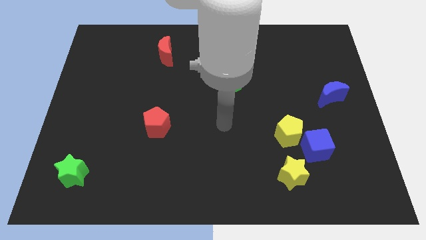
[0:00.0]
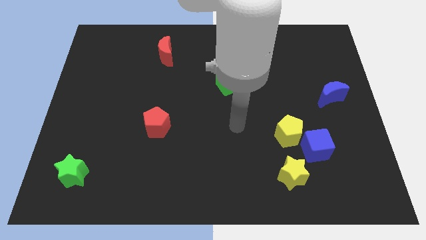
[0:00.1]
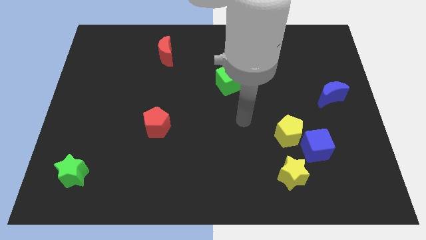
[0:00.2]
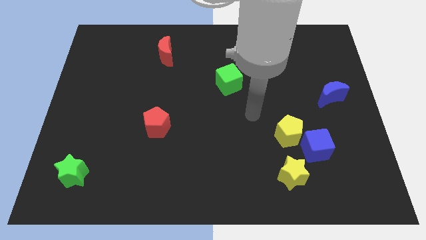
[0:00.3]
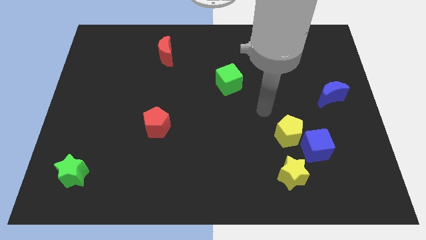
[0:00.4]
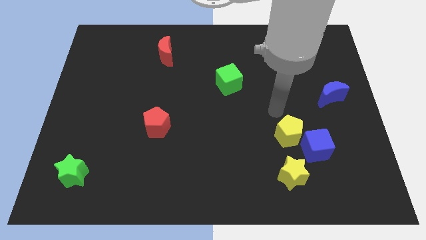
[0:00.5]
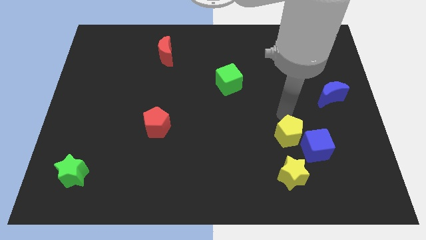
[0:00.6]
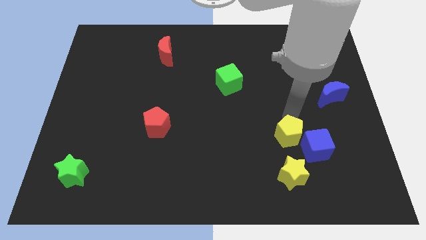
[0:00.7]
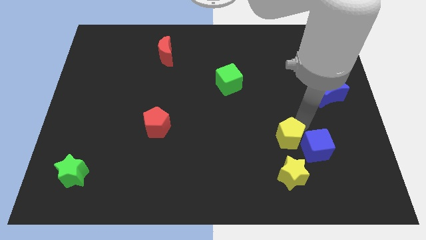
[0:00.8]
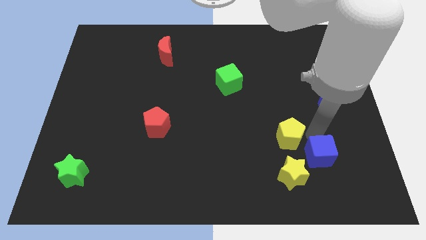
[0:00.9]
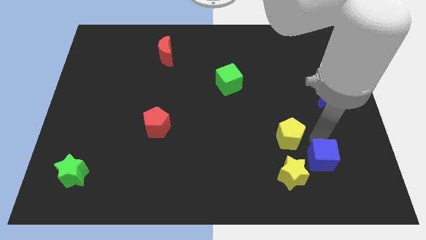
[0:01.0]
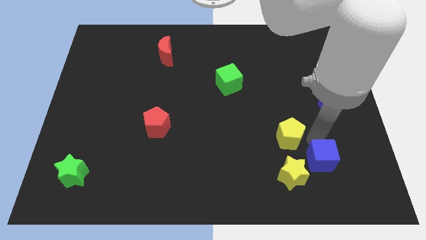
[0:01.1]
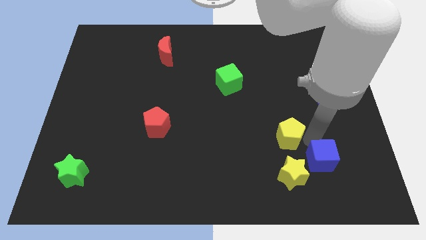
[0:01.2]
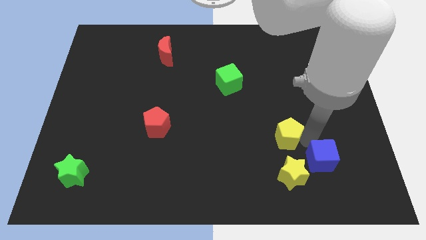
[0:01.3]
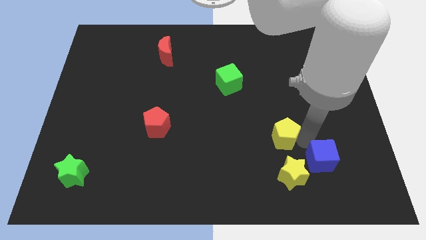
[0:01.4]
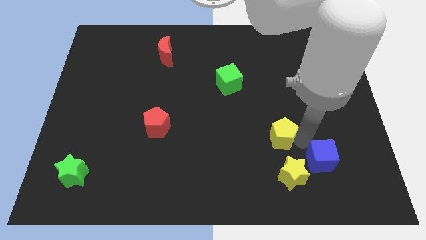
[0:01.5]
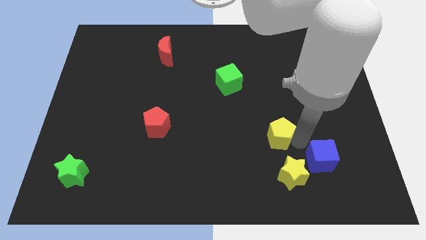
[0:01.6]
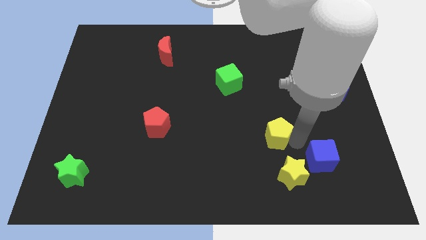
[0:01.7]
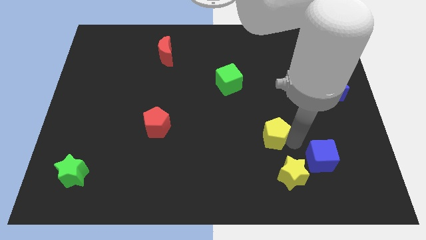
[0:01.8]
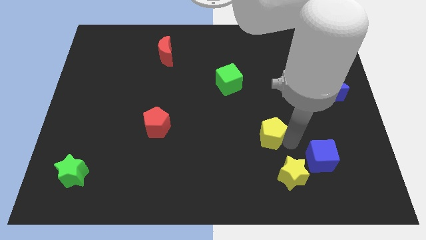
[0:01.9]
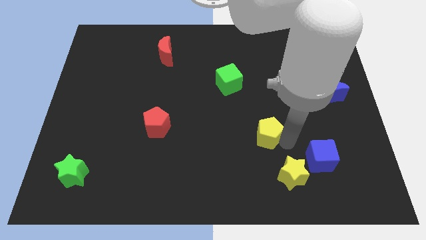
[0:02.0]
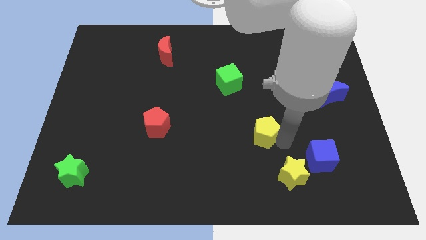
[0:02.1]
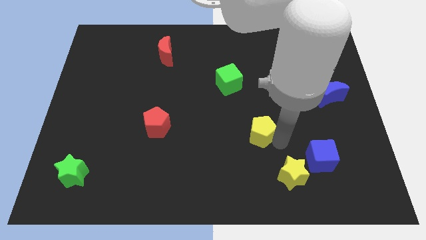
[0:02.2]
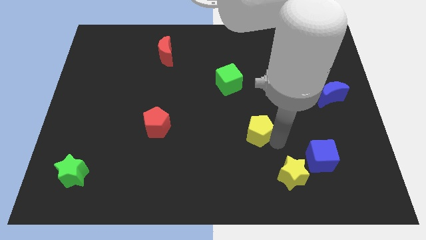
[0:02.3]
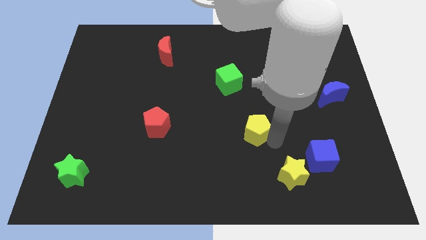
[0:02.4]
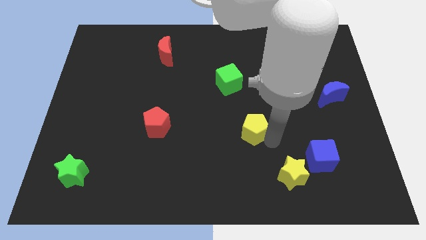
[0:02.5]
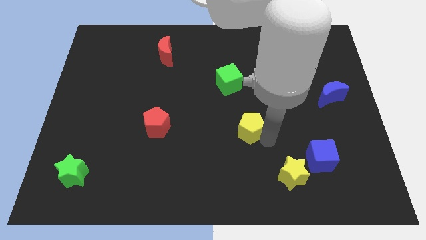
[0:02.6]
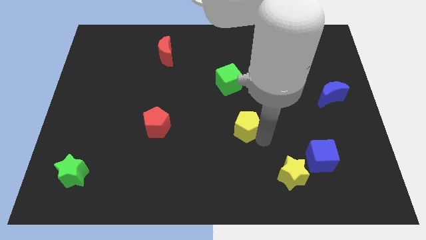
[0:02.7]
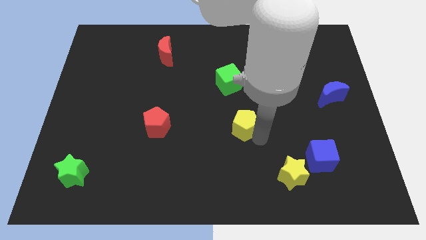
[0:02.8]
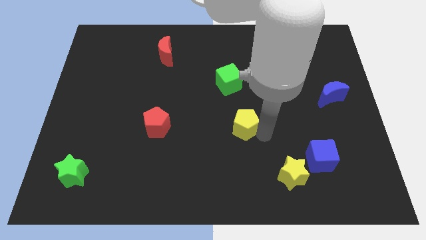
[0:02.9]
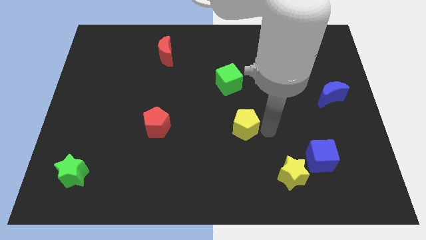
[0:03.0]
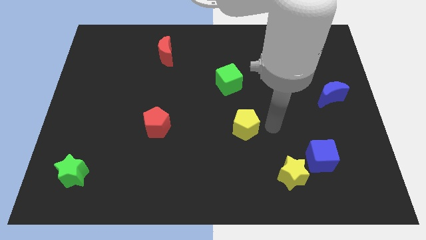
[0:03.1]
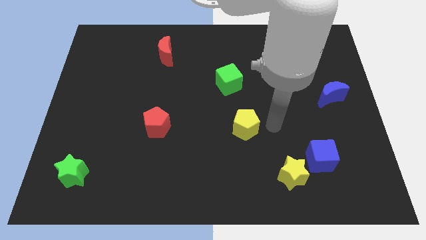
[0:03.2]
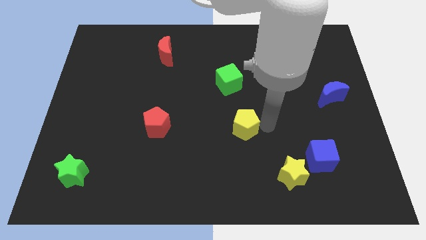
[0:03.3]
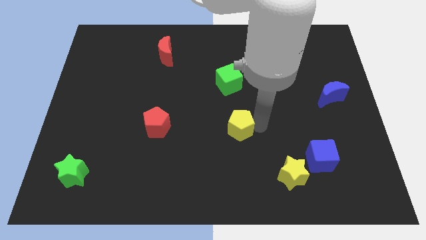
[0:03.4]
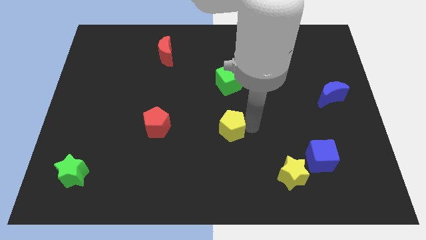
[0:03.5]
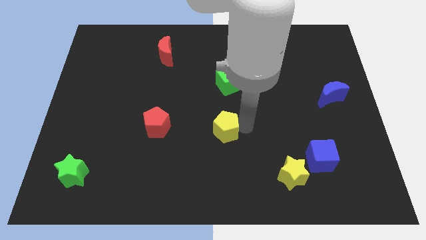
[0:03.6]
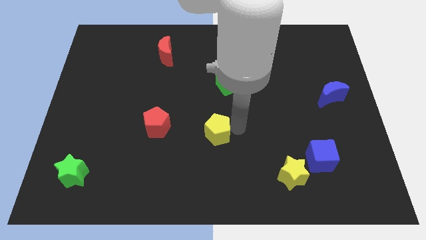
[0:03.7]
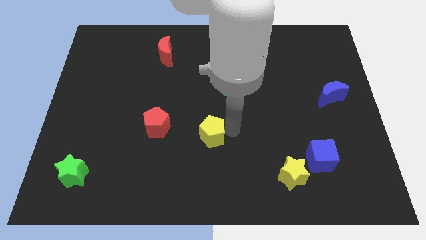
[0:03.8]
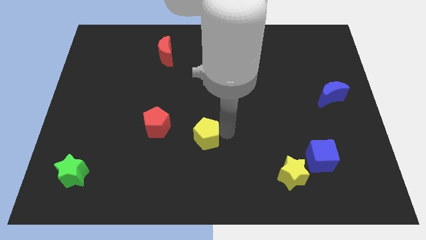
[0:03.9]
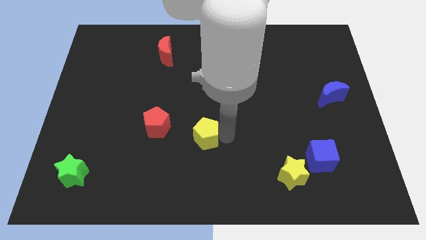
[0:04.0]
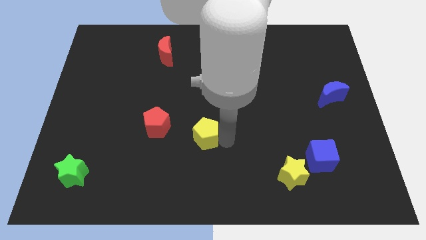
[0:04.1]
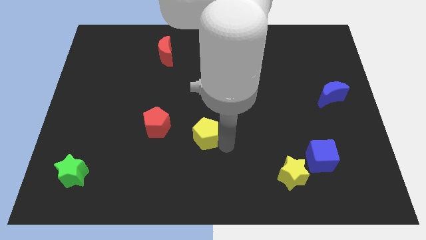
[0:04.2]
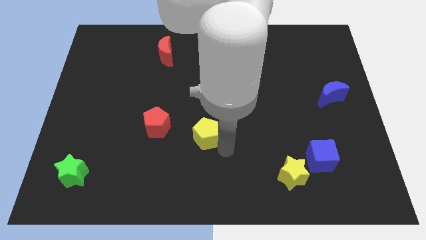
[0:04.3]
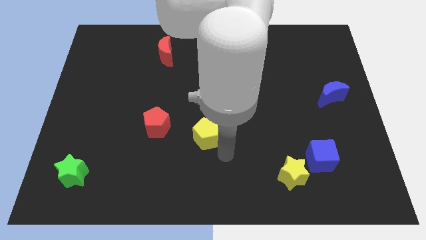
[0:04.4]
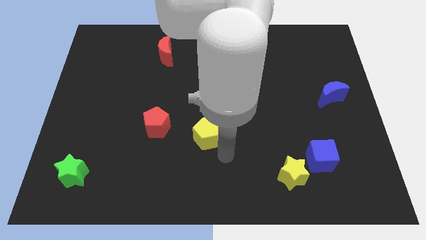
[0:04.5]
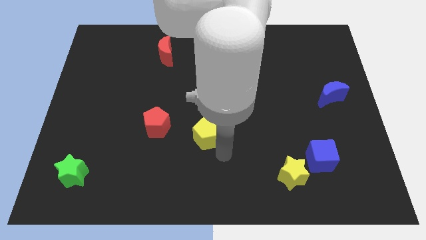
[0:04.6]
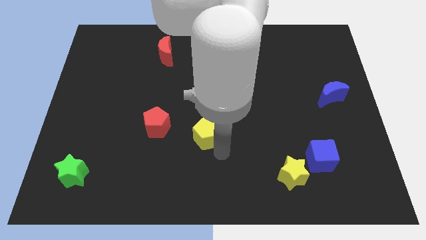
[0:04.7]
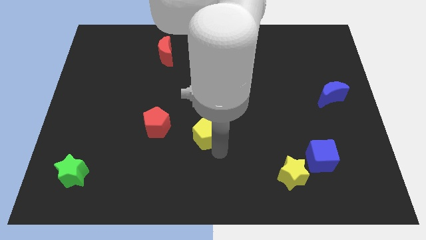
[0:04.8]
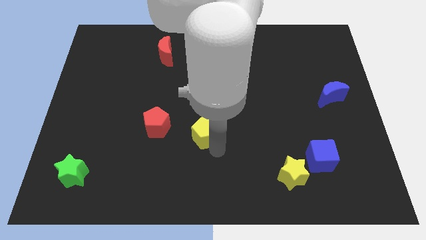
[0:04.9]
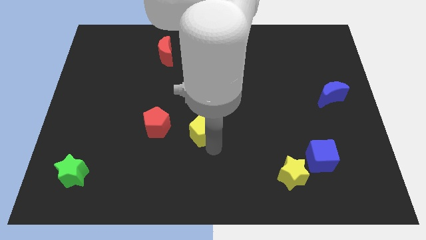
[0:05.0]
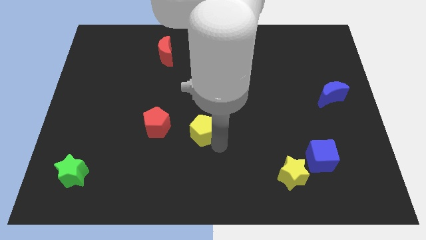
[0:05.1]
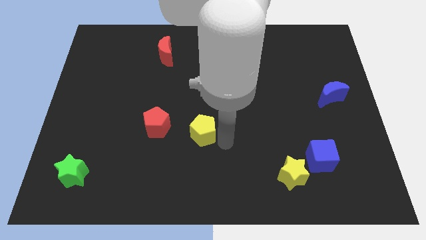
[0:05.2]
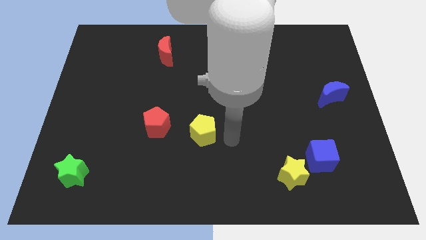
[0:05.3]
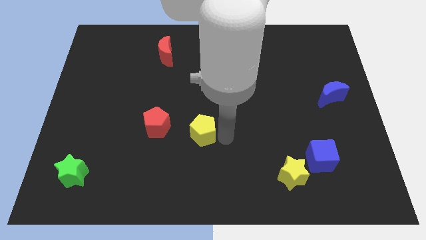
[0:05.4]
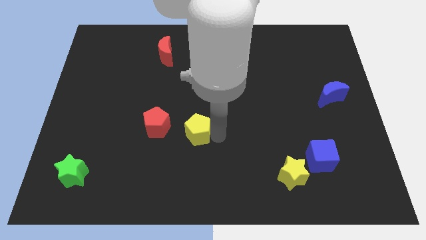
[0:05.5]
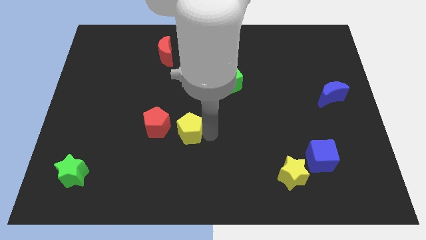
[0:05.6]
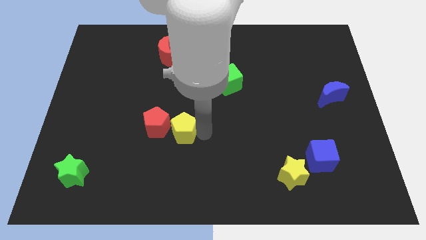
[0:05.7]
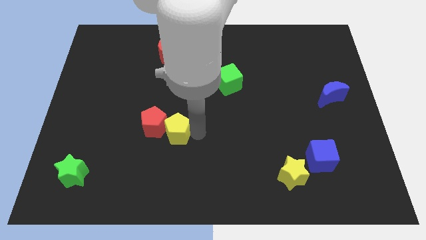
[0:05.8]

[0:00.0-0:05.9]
slide the yellow pentagon to the red pentagon

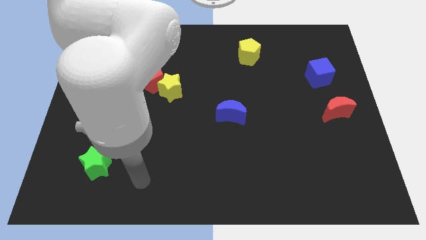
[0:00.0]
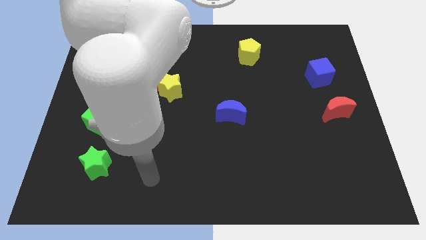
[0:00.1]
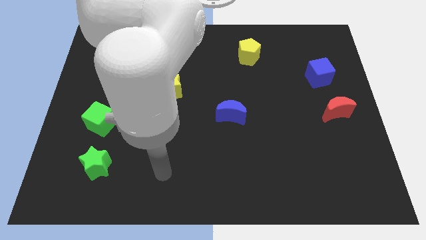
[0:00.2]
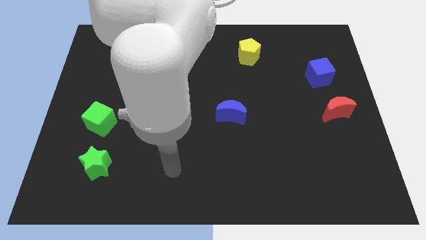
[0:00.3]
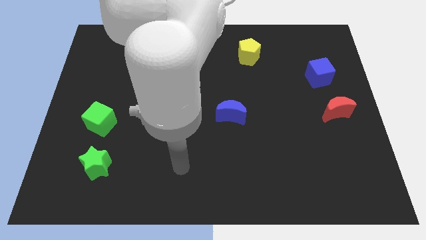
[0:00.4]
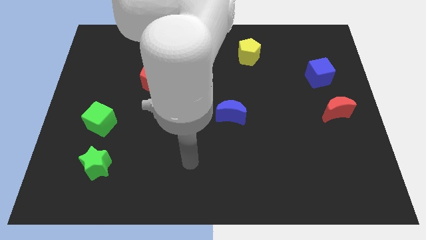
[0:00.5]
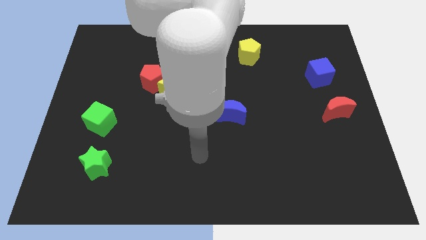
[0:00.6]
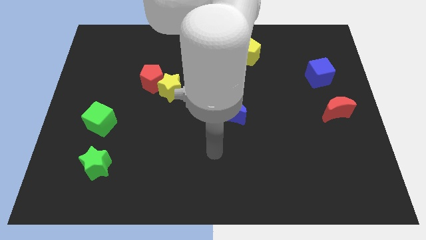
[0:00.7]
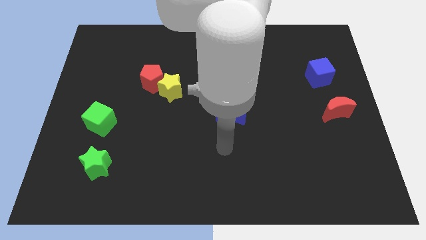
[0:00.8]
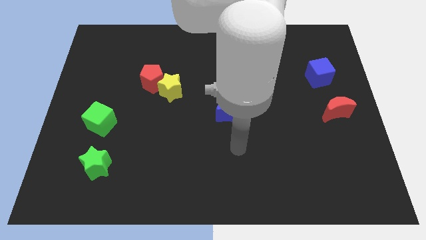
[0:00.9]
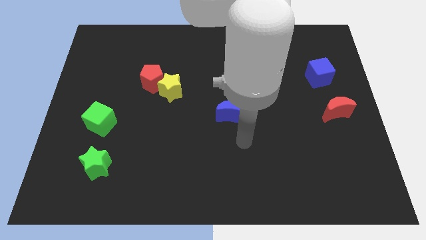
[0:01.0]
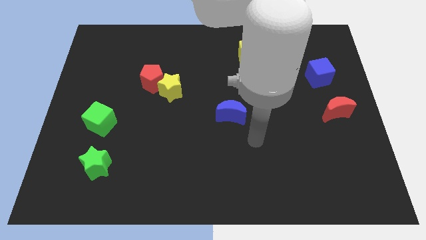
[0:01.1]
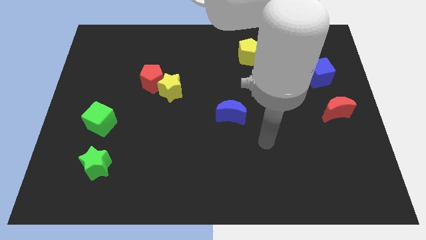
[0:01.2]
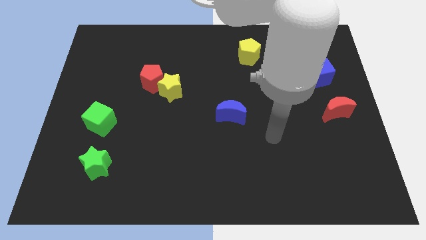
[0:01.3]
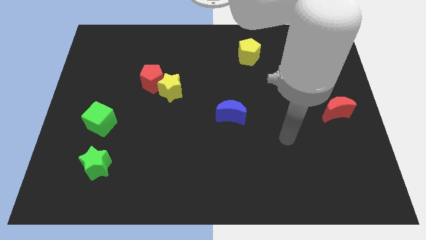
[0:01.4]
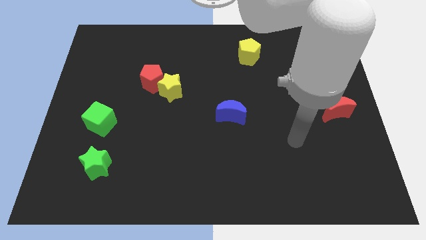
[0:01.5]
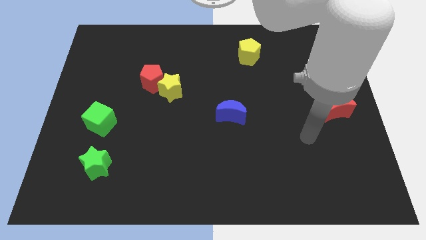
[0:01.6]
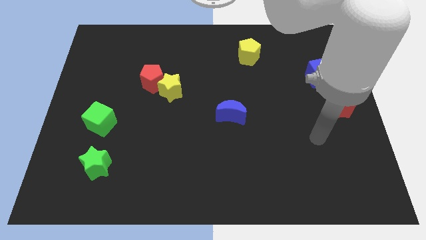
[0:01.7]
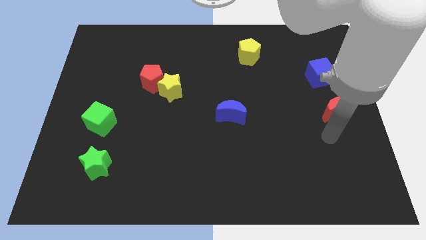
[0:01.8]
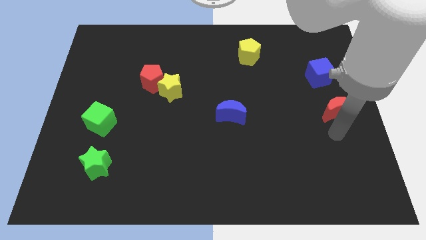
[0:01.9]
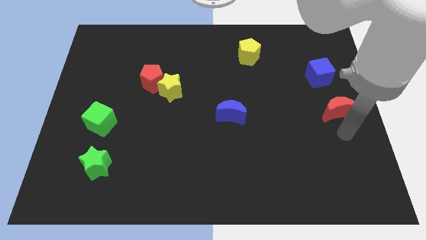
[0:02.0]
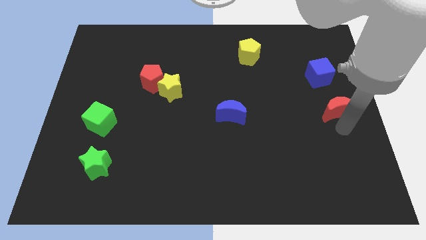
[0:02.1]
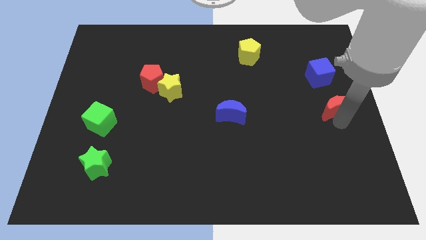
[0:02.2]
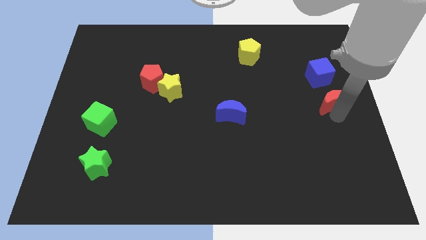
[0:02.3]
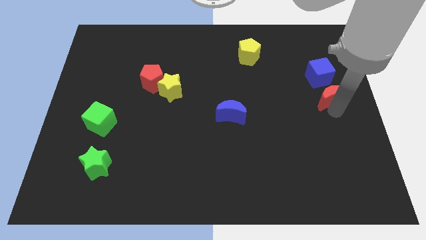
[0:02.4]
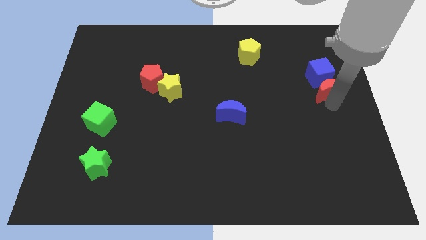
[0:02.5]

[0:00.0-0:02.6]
push the red moon towards the blue cube
